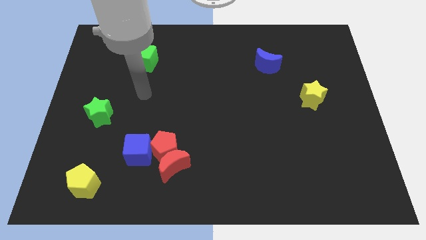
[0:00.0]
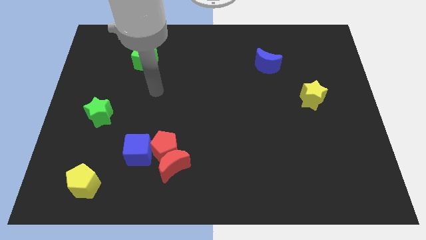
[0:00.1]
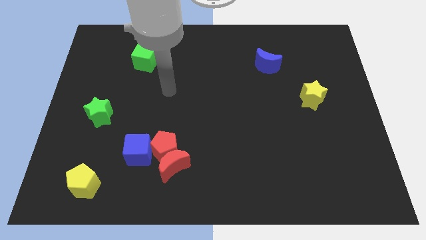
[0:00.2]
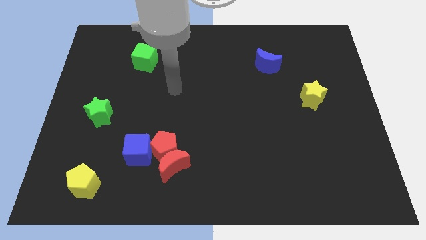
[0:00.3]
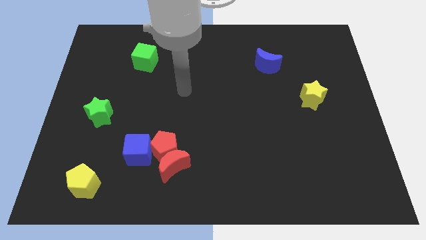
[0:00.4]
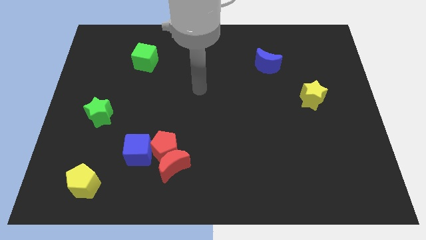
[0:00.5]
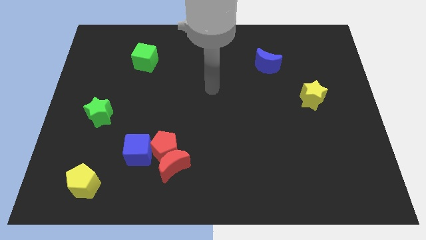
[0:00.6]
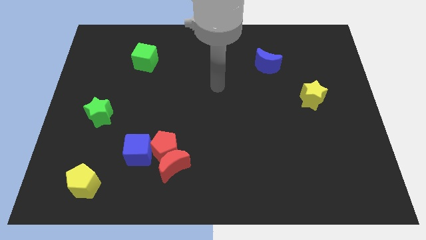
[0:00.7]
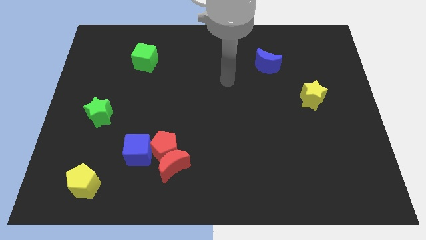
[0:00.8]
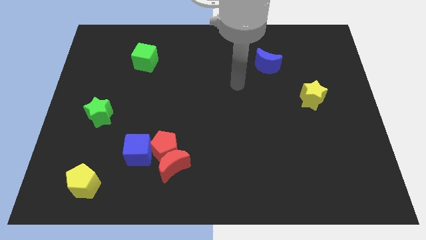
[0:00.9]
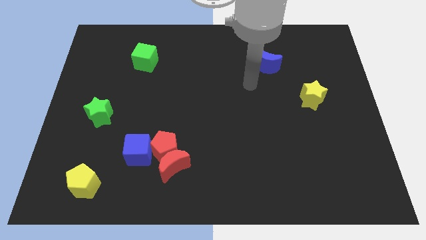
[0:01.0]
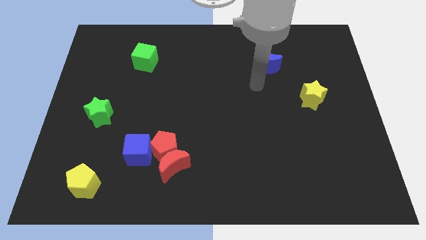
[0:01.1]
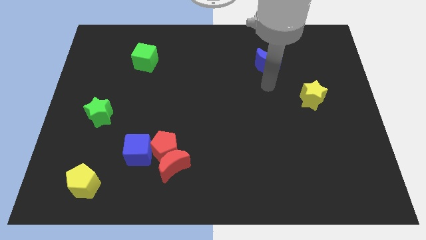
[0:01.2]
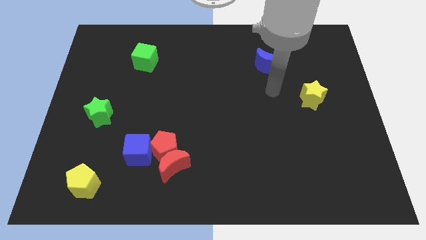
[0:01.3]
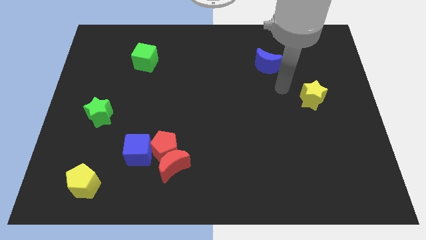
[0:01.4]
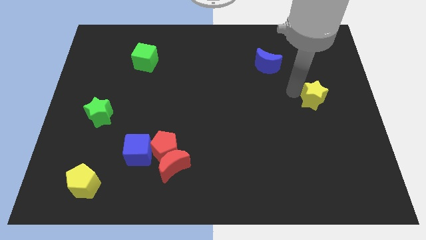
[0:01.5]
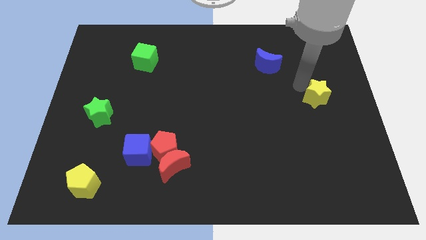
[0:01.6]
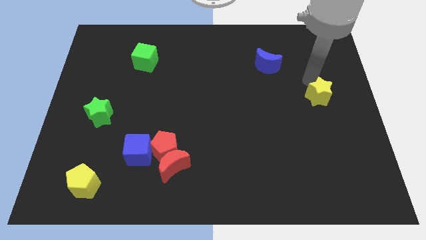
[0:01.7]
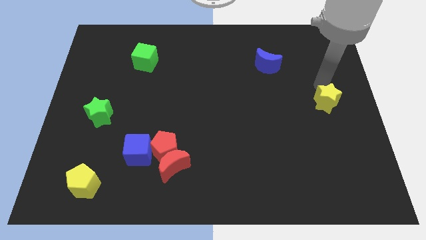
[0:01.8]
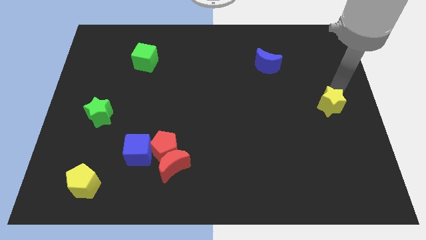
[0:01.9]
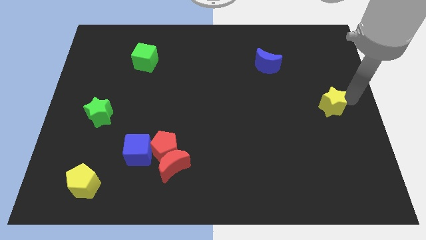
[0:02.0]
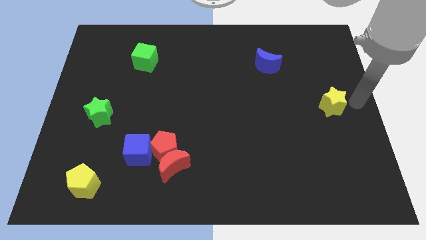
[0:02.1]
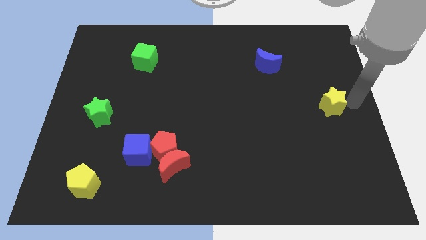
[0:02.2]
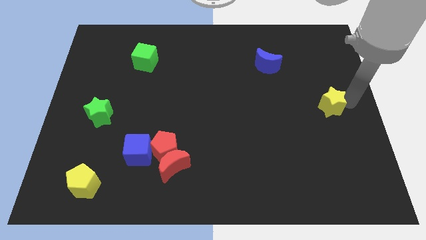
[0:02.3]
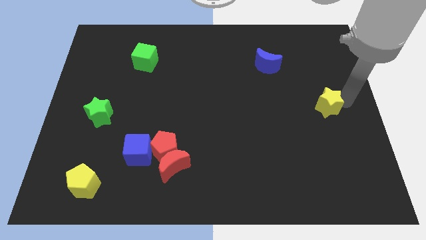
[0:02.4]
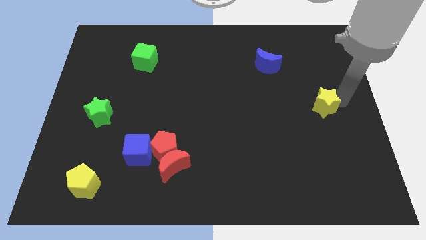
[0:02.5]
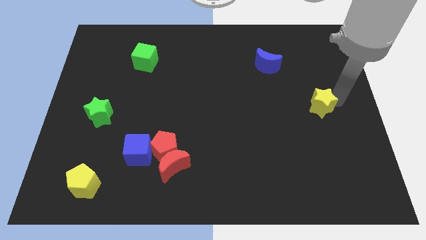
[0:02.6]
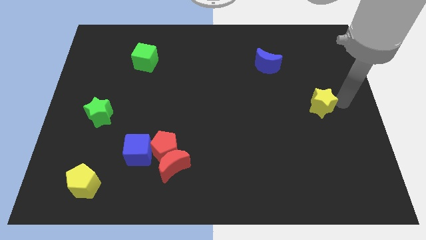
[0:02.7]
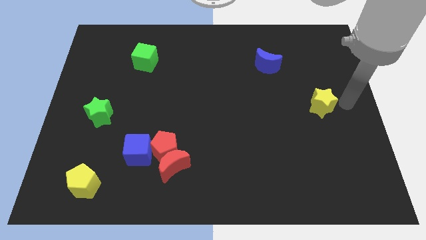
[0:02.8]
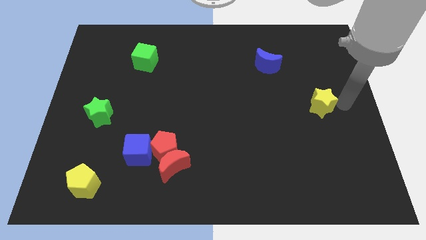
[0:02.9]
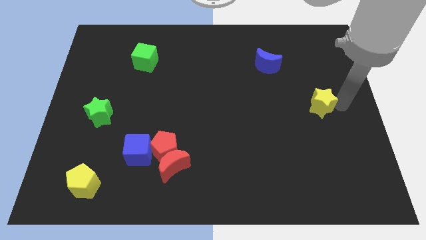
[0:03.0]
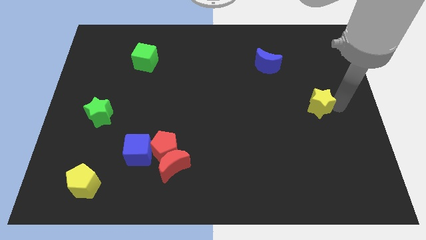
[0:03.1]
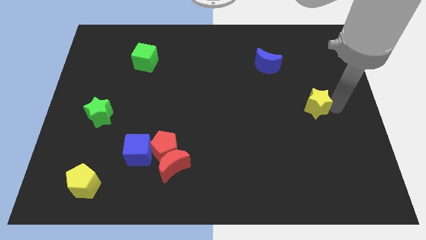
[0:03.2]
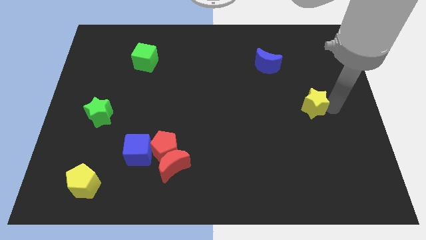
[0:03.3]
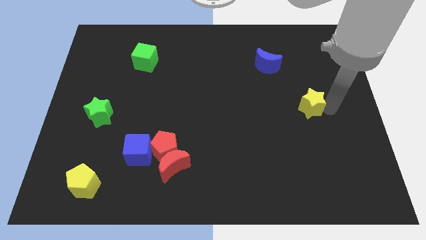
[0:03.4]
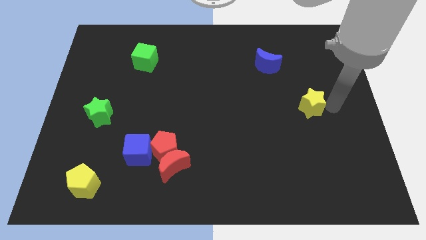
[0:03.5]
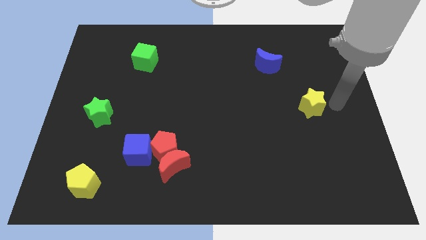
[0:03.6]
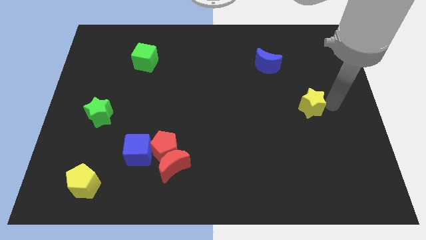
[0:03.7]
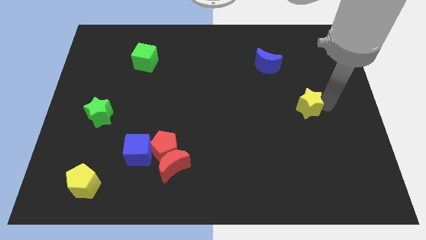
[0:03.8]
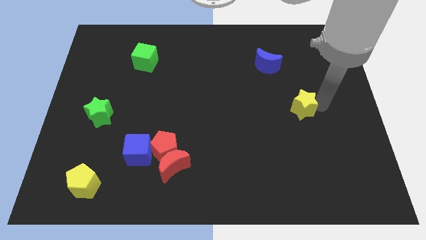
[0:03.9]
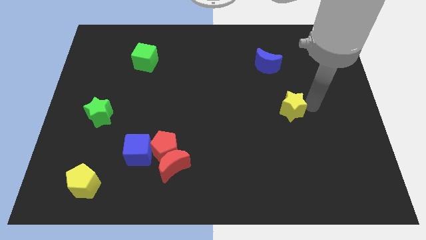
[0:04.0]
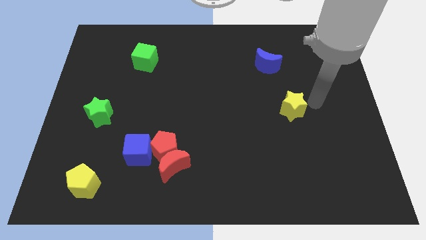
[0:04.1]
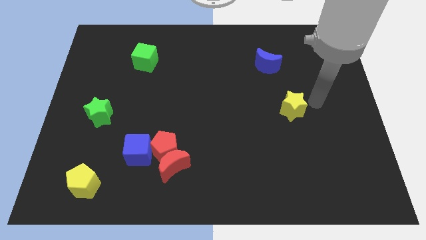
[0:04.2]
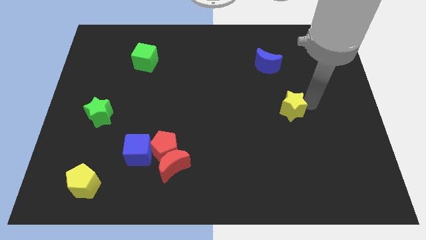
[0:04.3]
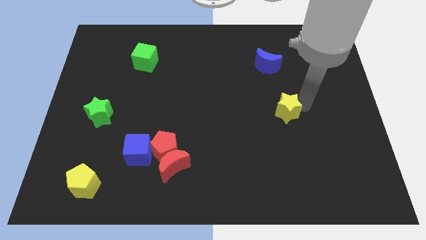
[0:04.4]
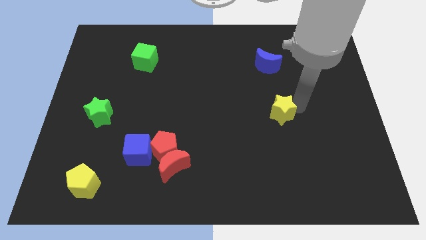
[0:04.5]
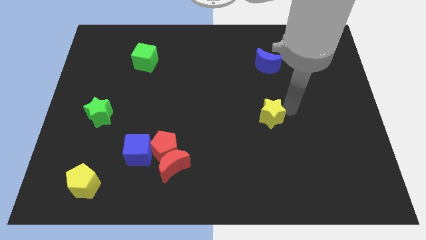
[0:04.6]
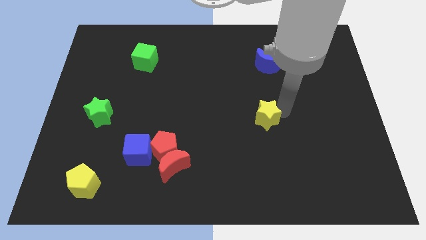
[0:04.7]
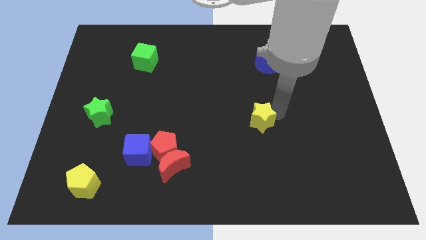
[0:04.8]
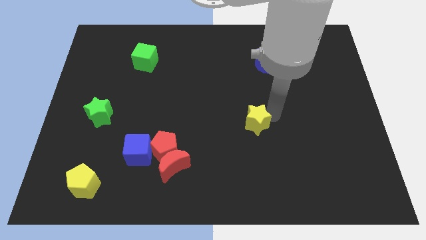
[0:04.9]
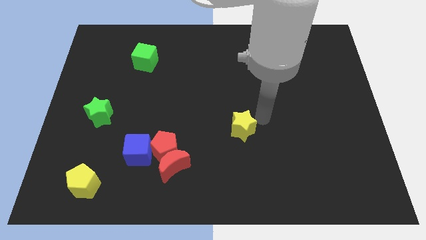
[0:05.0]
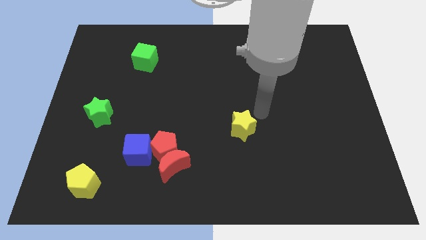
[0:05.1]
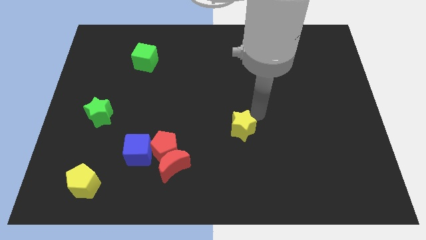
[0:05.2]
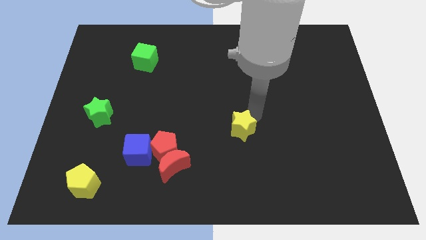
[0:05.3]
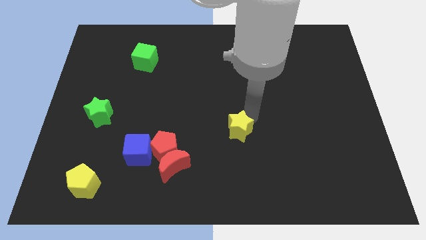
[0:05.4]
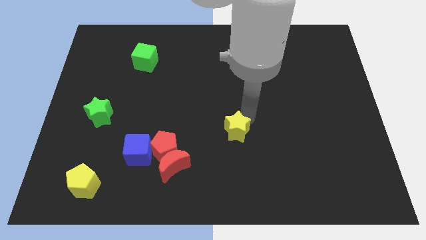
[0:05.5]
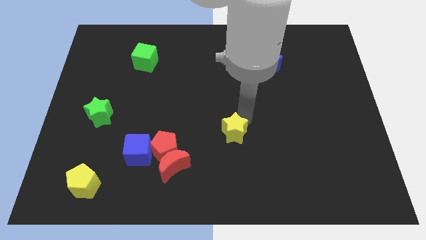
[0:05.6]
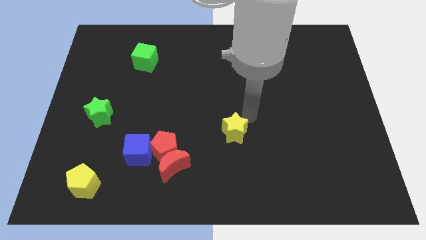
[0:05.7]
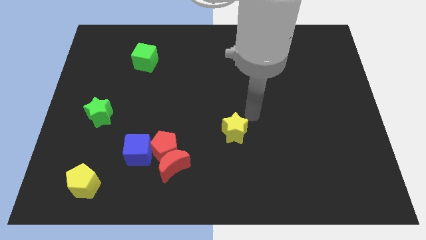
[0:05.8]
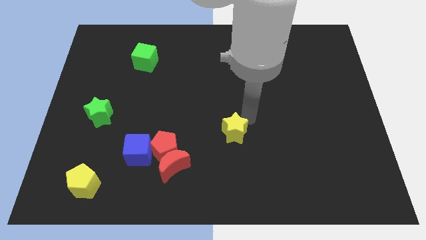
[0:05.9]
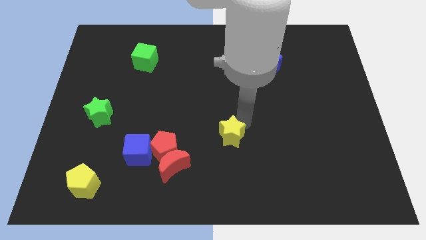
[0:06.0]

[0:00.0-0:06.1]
move the yellow star right of the red pentagon

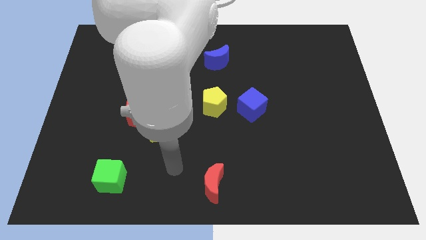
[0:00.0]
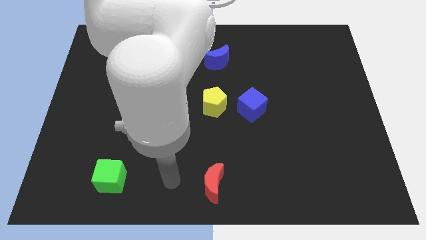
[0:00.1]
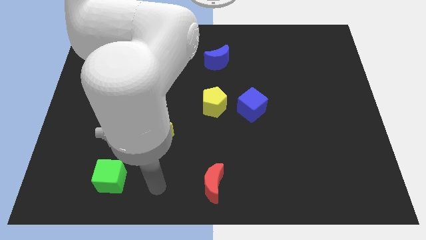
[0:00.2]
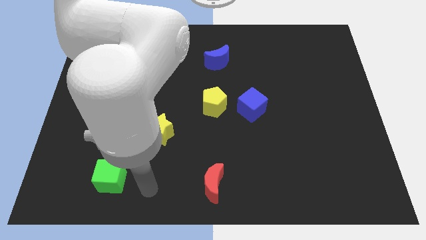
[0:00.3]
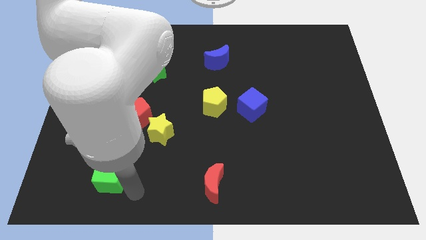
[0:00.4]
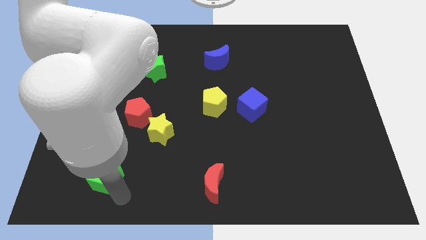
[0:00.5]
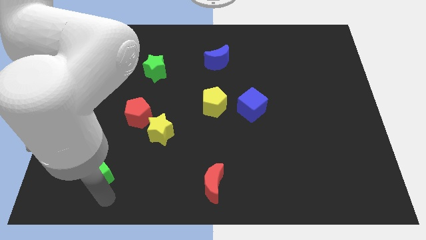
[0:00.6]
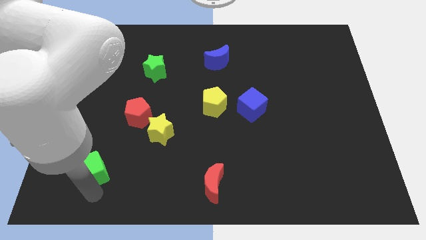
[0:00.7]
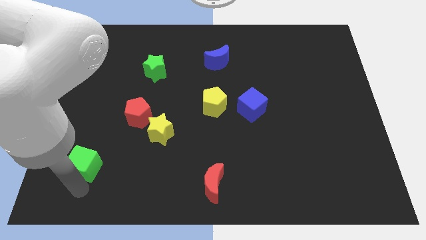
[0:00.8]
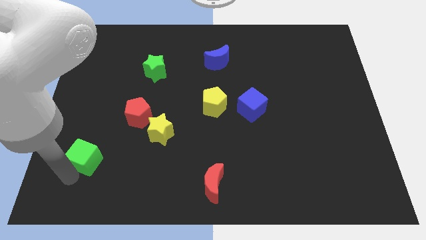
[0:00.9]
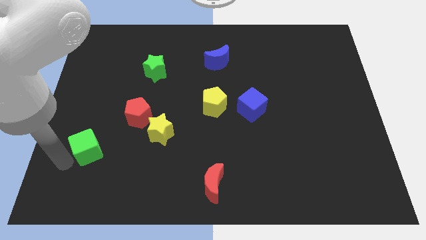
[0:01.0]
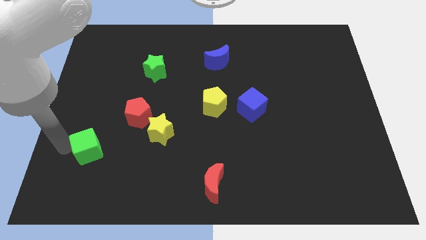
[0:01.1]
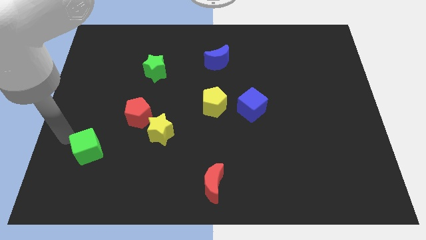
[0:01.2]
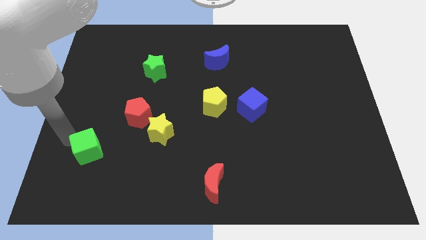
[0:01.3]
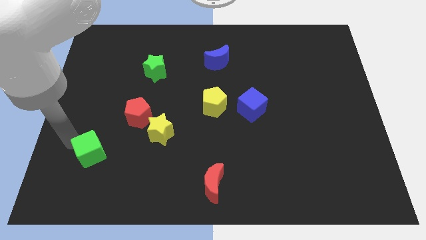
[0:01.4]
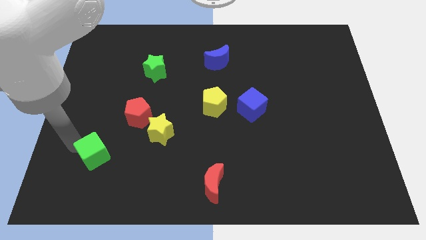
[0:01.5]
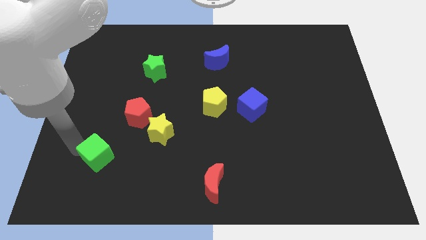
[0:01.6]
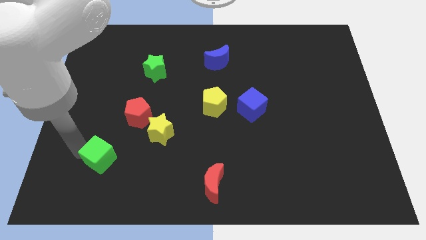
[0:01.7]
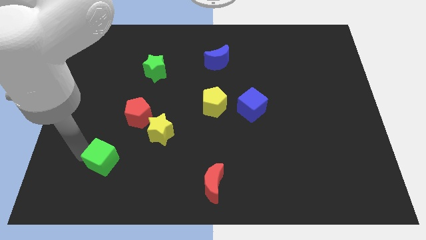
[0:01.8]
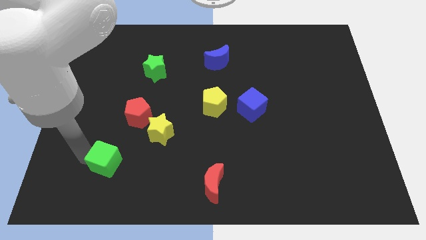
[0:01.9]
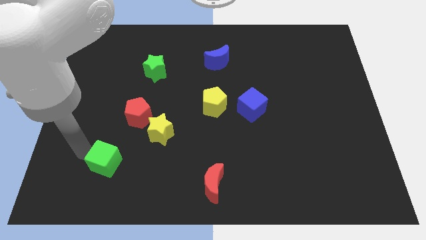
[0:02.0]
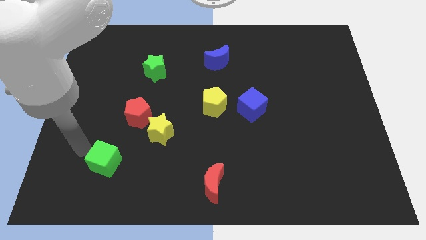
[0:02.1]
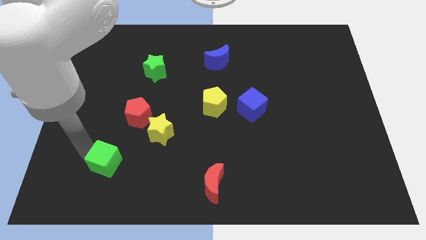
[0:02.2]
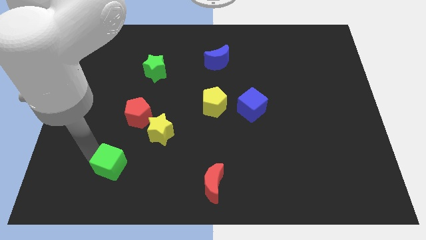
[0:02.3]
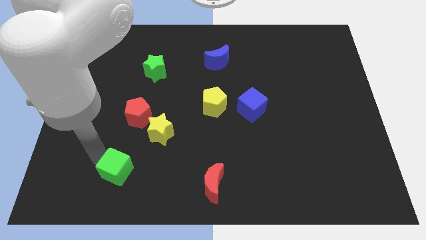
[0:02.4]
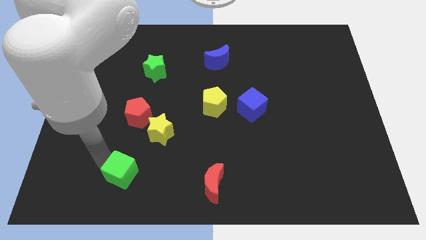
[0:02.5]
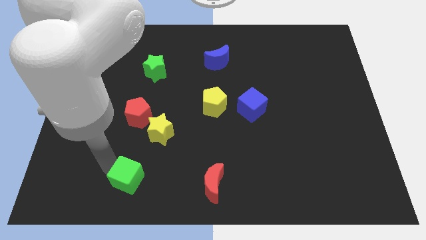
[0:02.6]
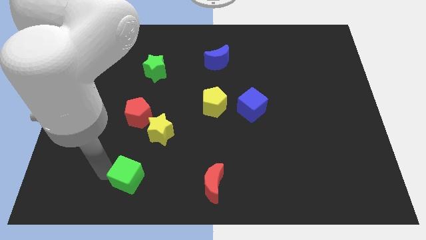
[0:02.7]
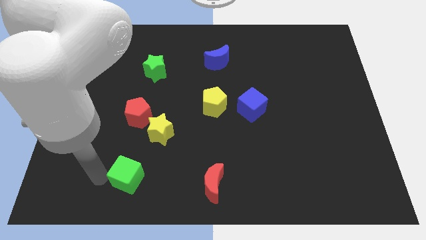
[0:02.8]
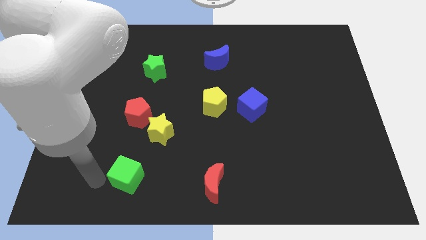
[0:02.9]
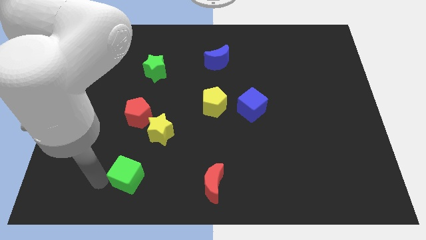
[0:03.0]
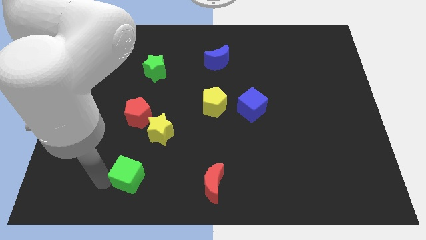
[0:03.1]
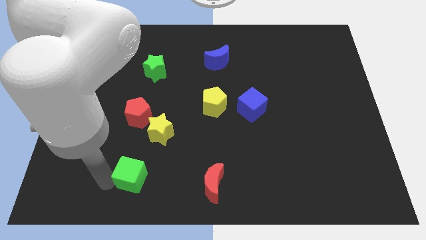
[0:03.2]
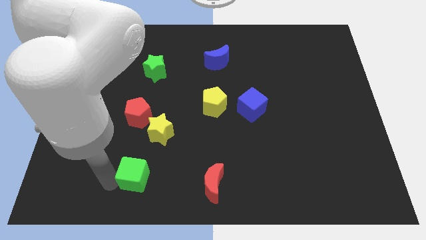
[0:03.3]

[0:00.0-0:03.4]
move the green cube below the yellow star
